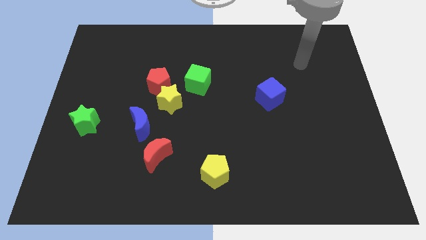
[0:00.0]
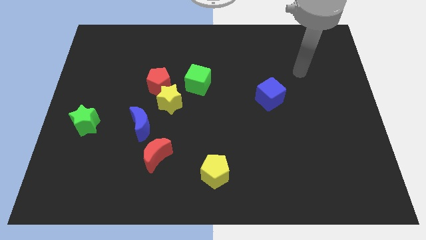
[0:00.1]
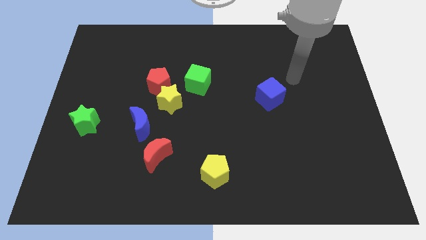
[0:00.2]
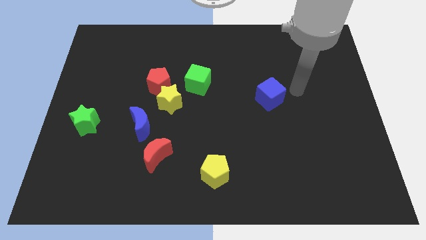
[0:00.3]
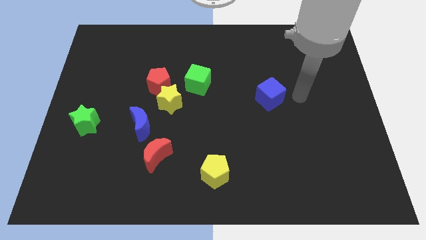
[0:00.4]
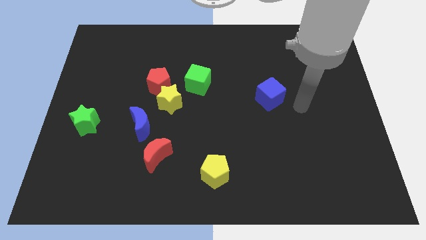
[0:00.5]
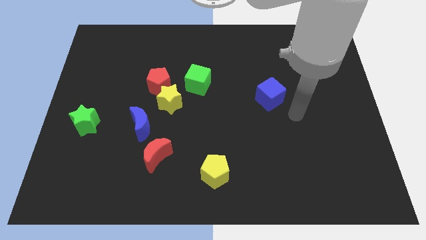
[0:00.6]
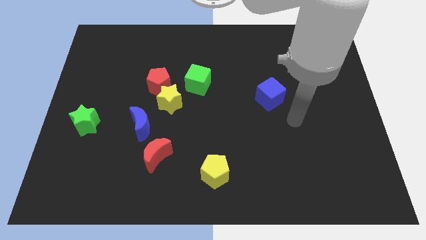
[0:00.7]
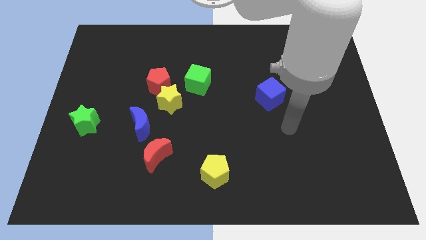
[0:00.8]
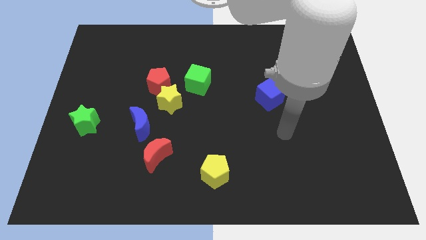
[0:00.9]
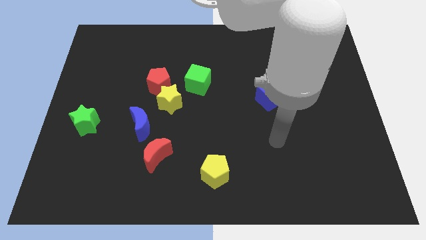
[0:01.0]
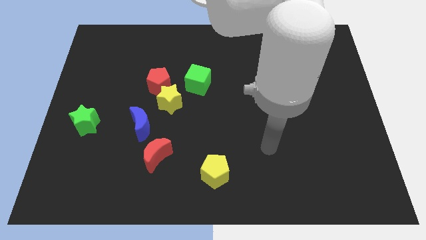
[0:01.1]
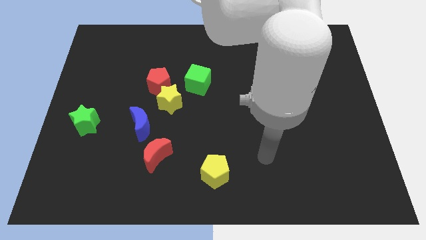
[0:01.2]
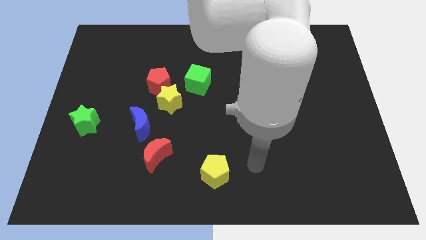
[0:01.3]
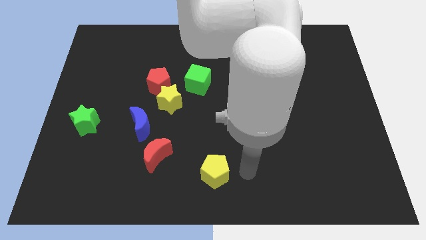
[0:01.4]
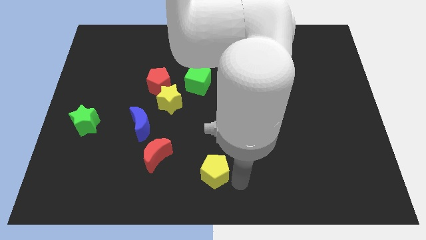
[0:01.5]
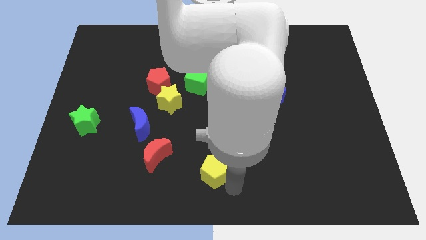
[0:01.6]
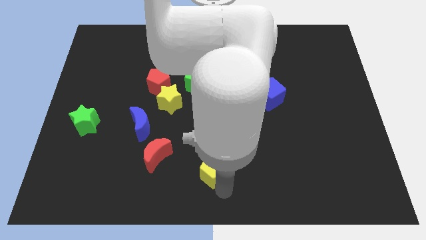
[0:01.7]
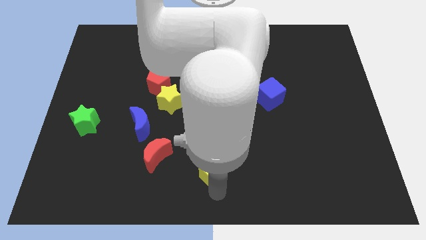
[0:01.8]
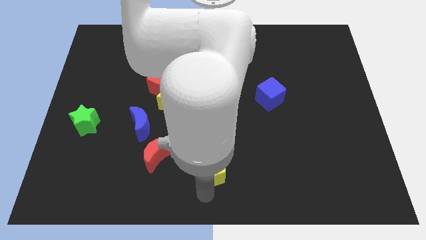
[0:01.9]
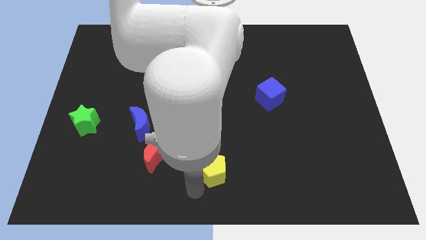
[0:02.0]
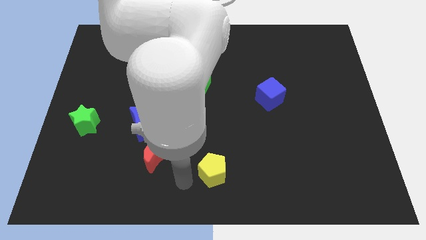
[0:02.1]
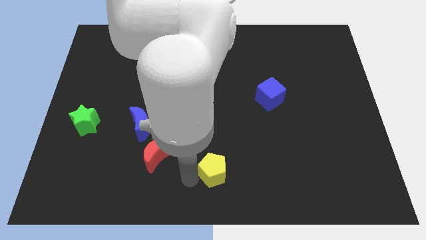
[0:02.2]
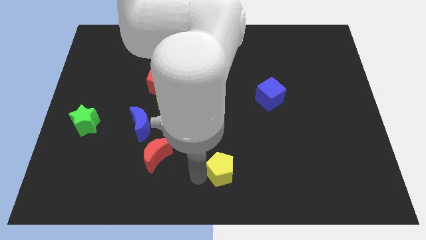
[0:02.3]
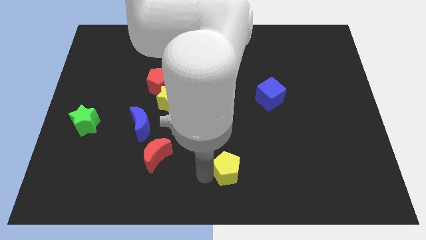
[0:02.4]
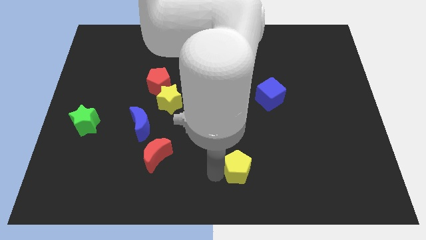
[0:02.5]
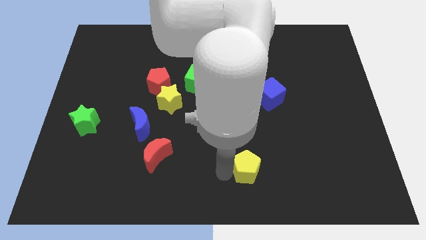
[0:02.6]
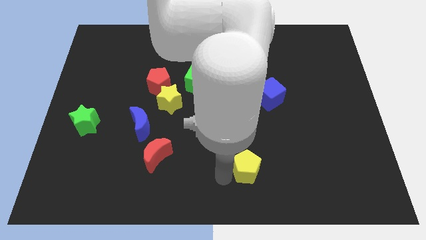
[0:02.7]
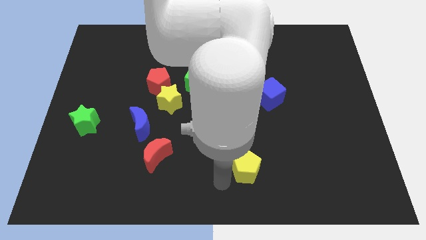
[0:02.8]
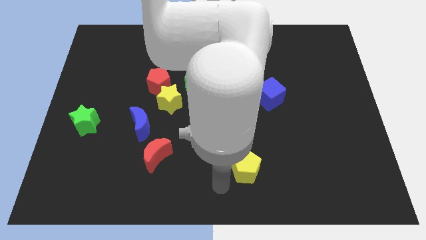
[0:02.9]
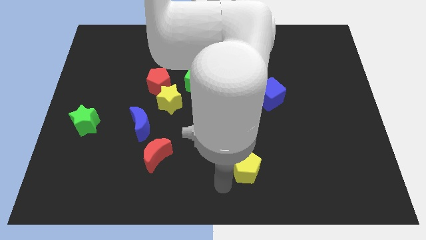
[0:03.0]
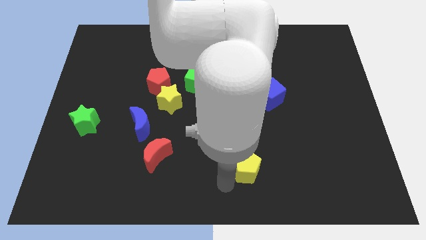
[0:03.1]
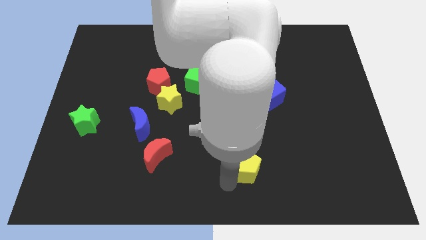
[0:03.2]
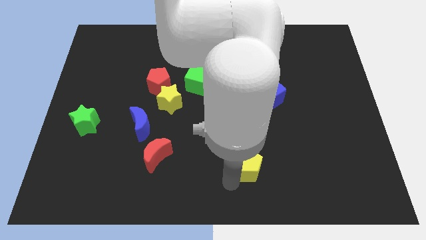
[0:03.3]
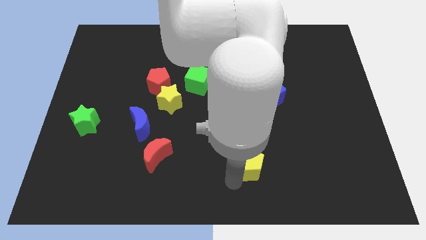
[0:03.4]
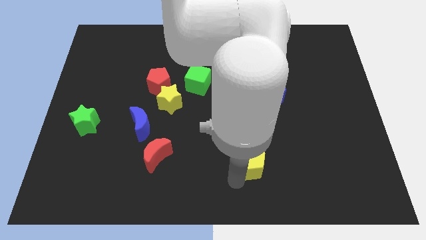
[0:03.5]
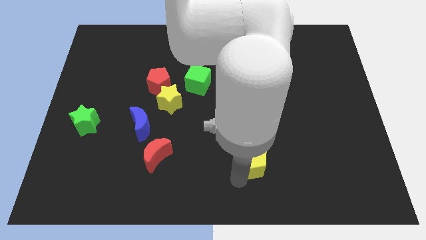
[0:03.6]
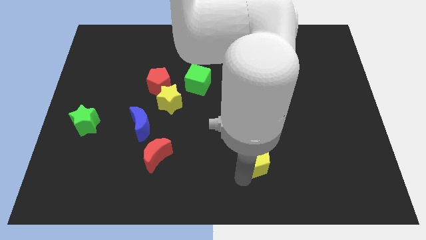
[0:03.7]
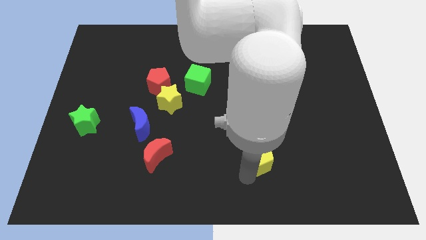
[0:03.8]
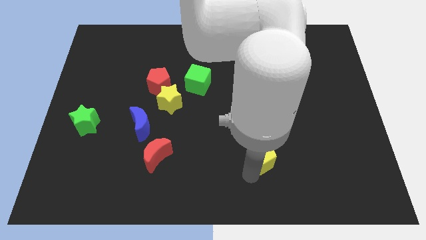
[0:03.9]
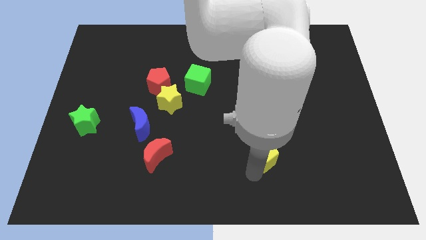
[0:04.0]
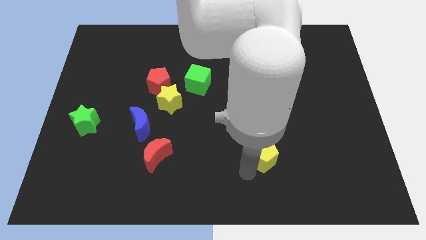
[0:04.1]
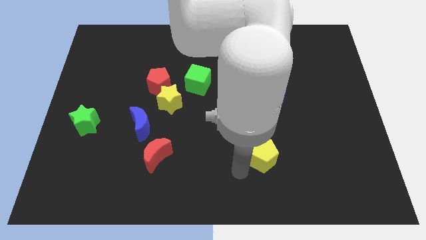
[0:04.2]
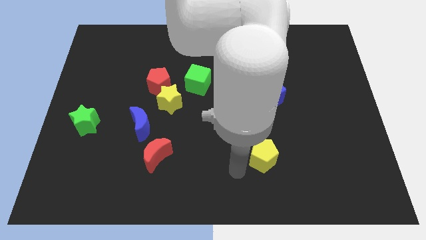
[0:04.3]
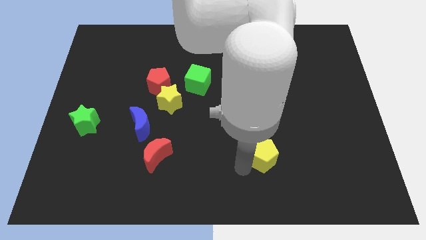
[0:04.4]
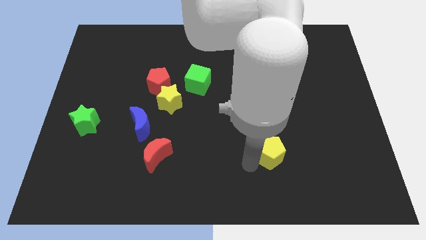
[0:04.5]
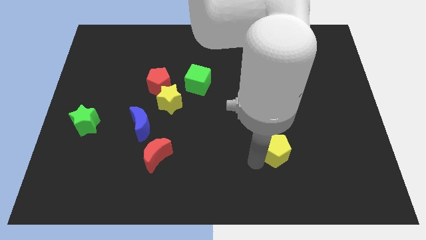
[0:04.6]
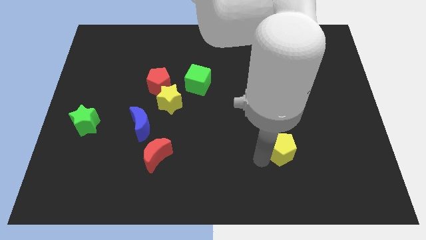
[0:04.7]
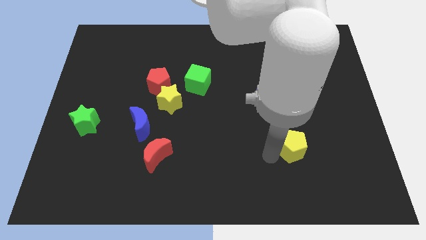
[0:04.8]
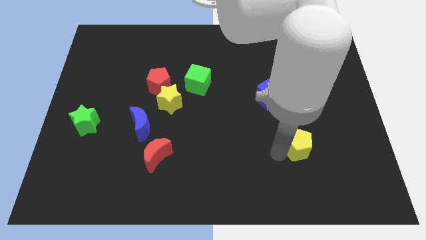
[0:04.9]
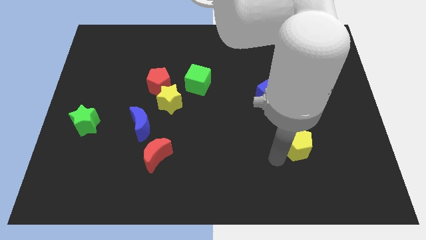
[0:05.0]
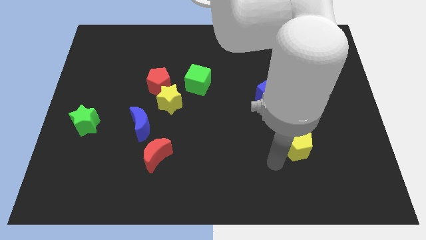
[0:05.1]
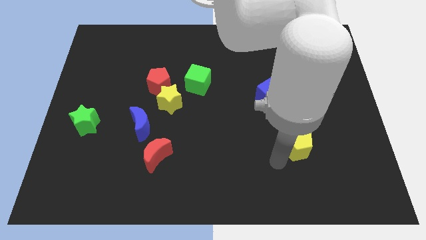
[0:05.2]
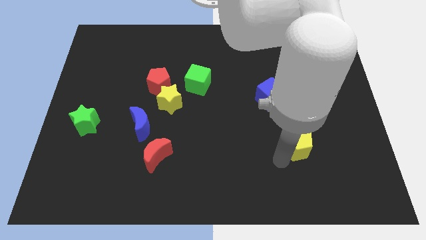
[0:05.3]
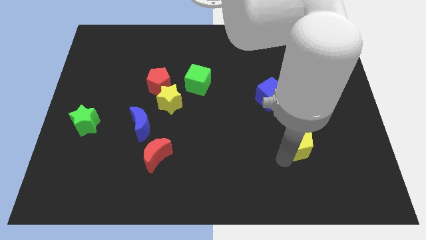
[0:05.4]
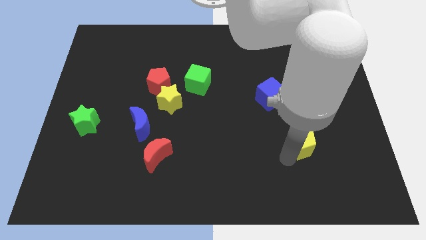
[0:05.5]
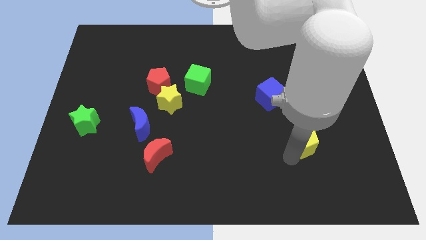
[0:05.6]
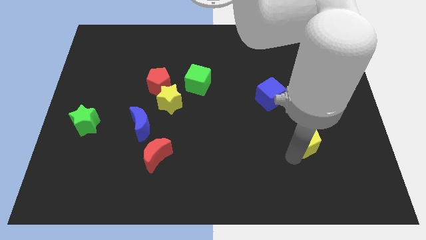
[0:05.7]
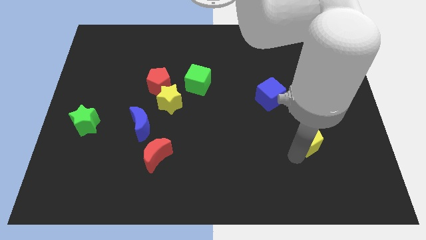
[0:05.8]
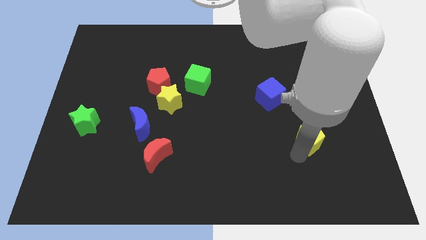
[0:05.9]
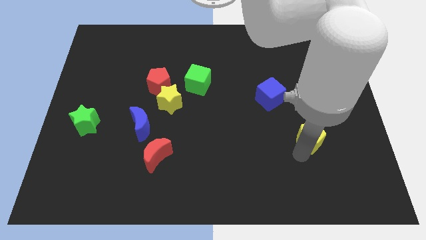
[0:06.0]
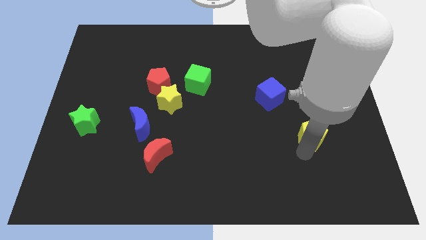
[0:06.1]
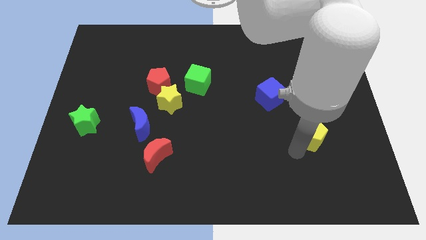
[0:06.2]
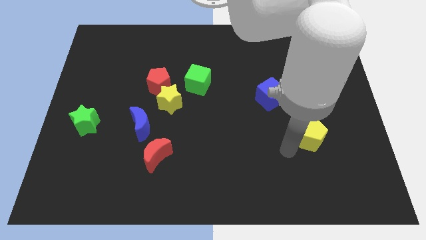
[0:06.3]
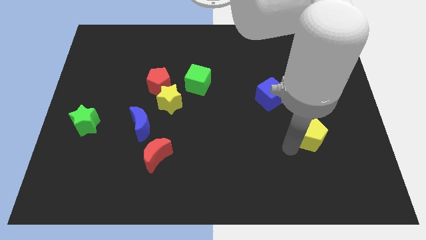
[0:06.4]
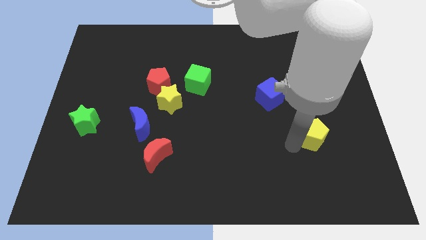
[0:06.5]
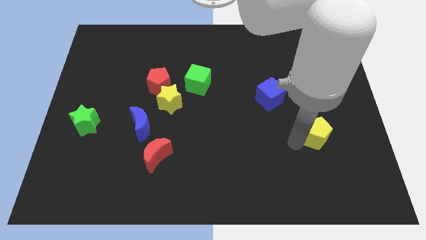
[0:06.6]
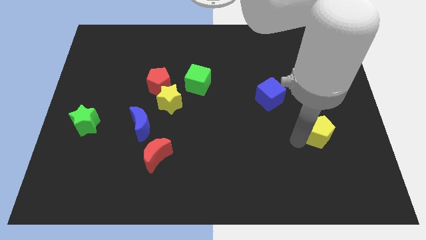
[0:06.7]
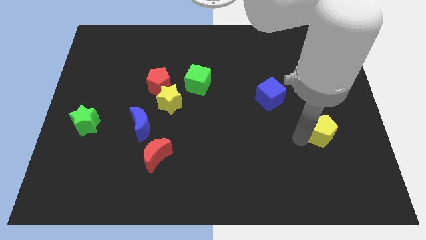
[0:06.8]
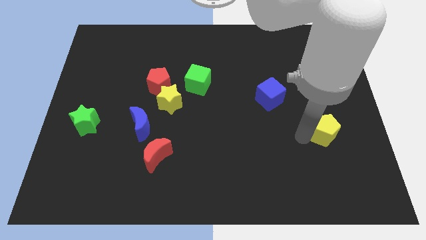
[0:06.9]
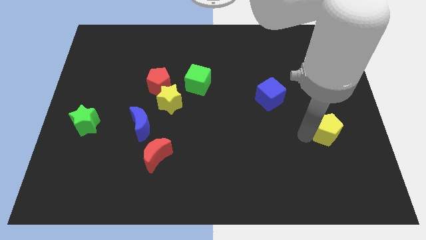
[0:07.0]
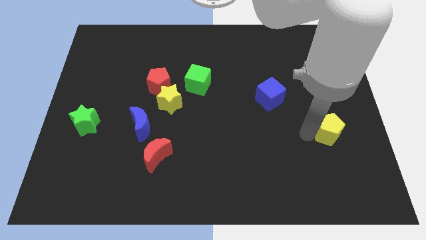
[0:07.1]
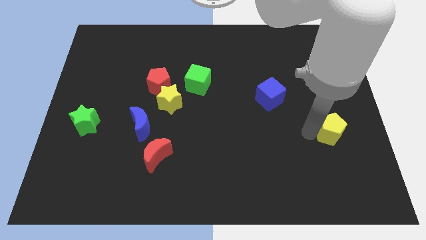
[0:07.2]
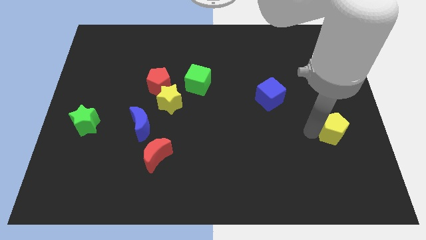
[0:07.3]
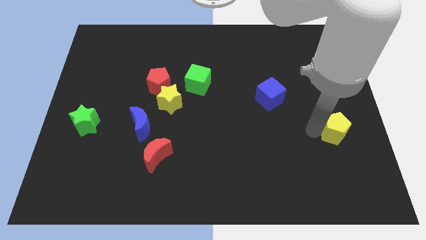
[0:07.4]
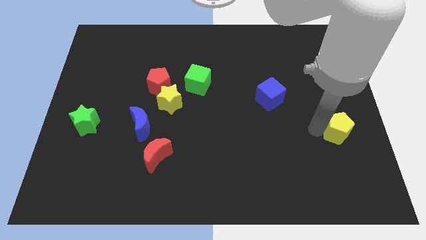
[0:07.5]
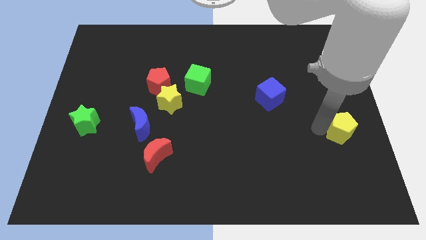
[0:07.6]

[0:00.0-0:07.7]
push the yellow pentagon to the right side
